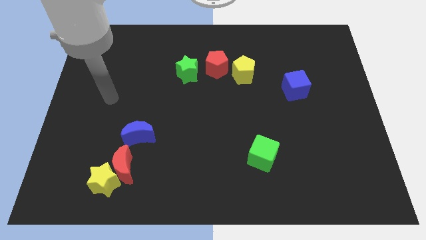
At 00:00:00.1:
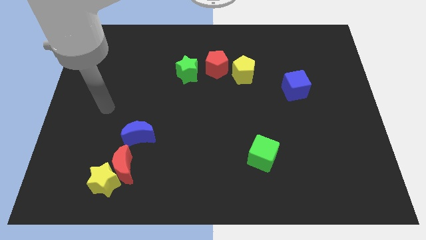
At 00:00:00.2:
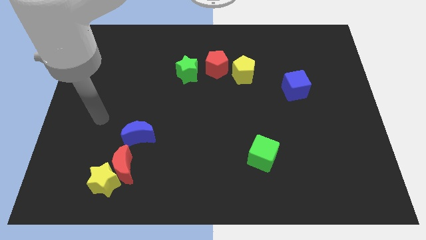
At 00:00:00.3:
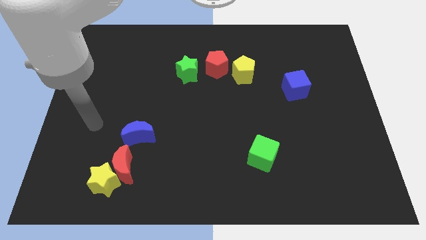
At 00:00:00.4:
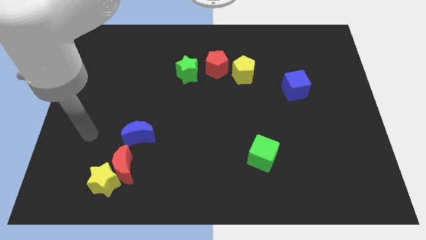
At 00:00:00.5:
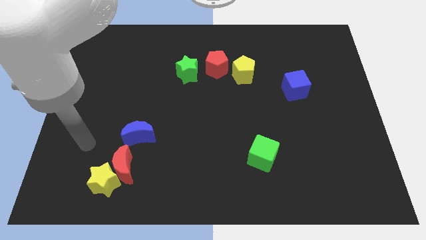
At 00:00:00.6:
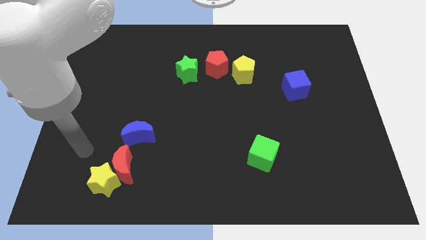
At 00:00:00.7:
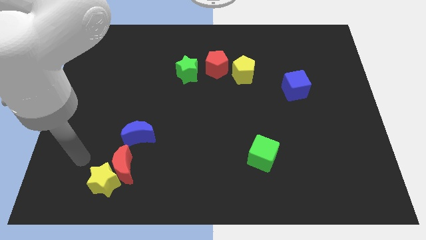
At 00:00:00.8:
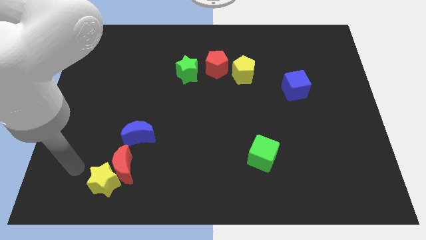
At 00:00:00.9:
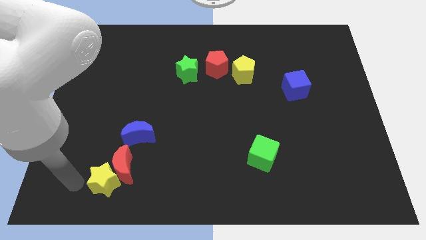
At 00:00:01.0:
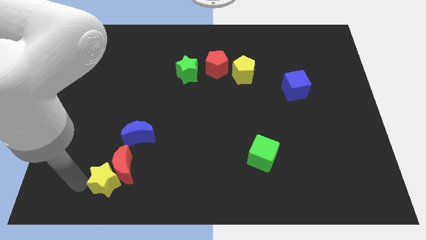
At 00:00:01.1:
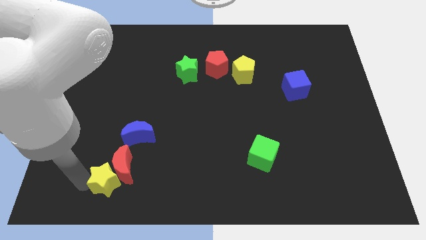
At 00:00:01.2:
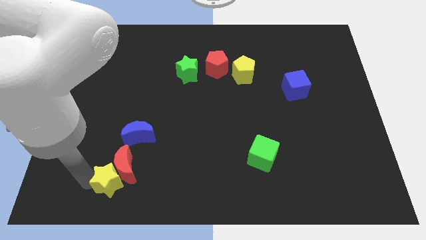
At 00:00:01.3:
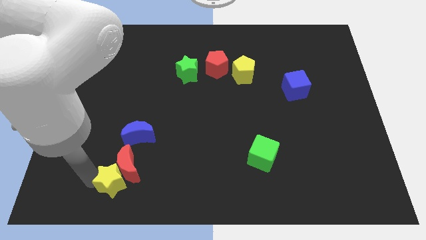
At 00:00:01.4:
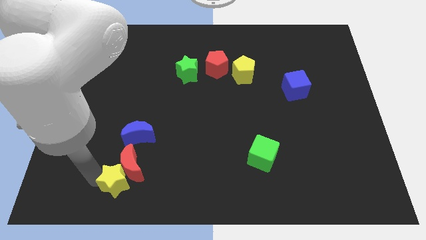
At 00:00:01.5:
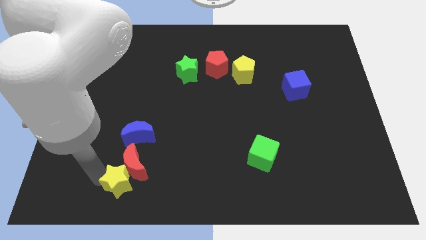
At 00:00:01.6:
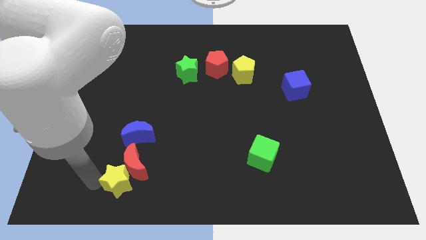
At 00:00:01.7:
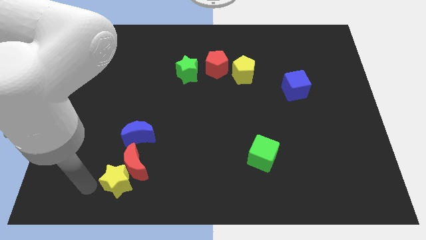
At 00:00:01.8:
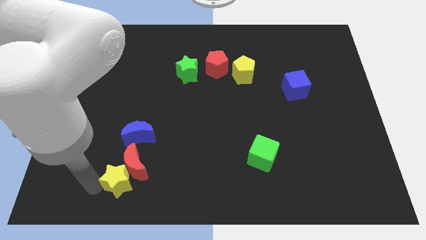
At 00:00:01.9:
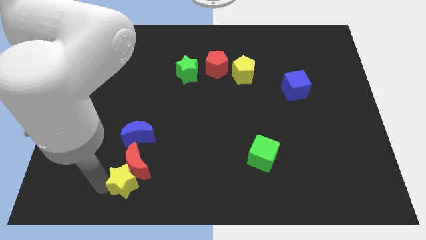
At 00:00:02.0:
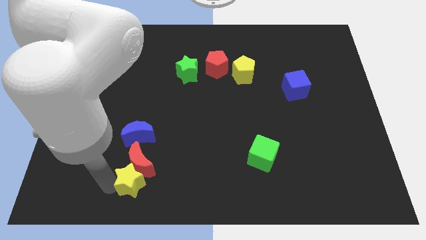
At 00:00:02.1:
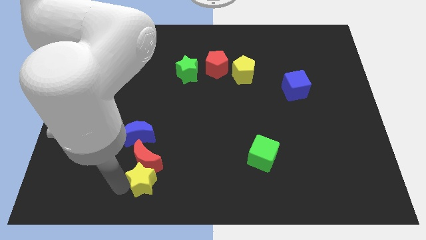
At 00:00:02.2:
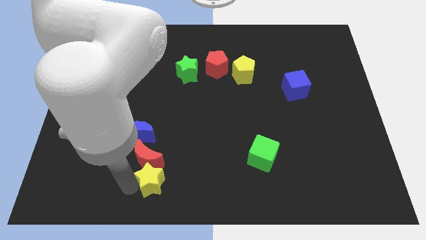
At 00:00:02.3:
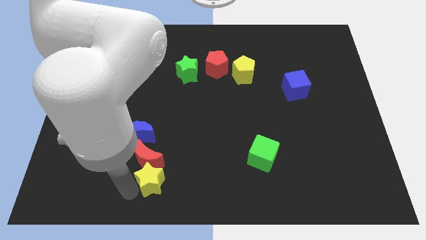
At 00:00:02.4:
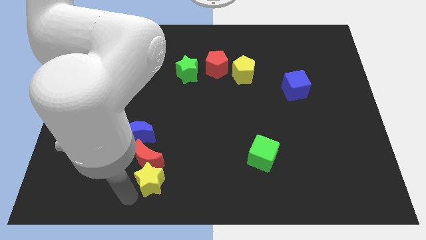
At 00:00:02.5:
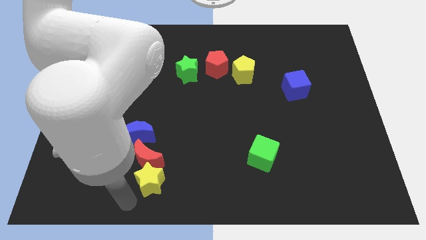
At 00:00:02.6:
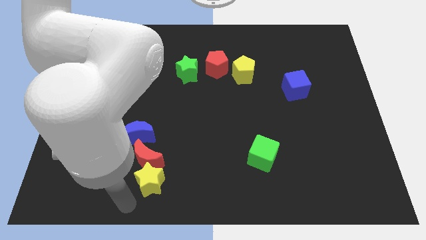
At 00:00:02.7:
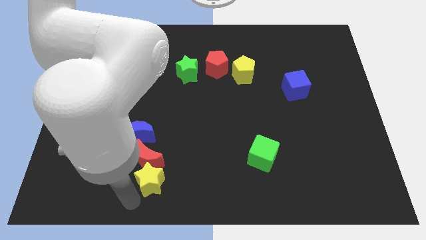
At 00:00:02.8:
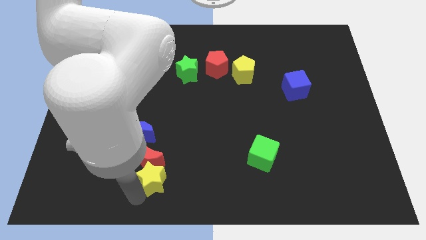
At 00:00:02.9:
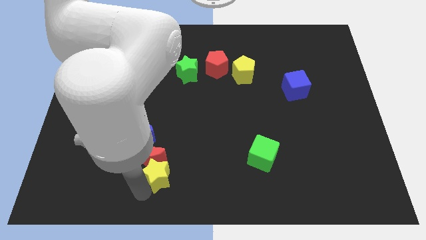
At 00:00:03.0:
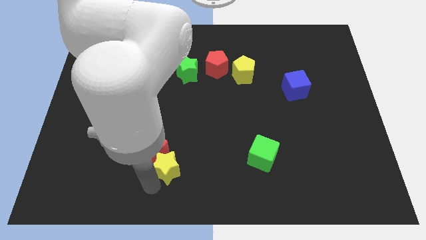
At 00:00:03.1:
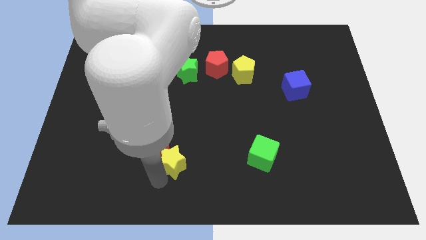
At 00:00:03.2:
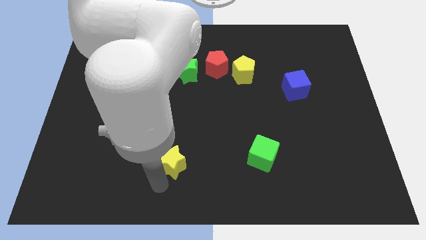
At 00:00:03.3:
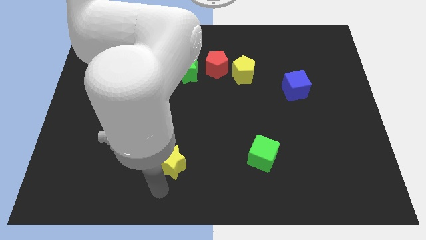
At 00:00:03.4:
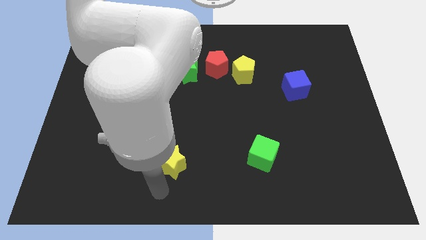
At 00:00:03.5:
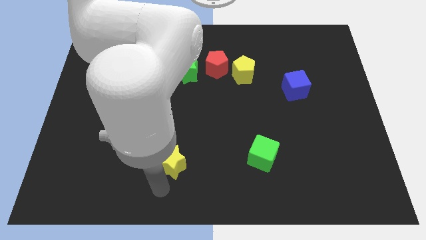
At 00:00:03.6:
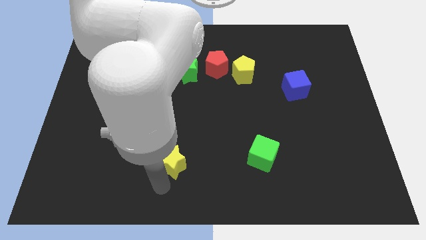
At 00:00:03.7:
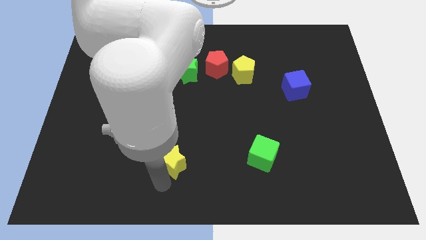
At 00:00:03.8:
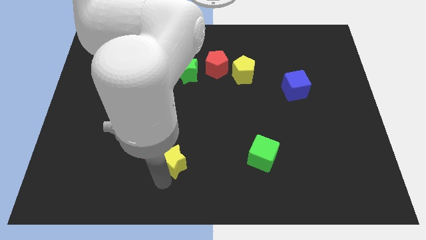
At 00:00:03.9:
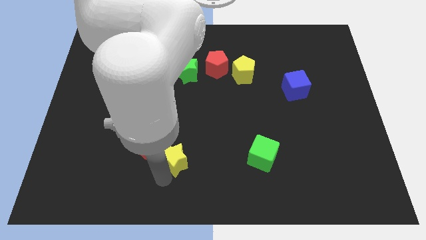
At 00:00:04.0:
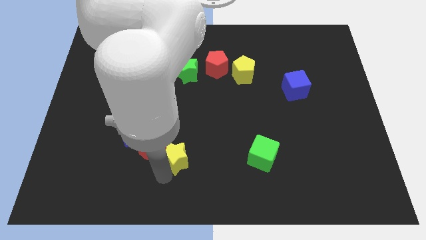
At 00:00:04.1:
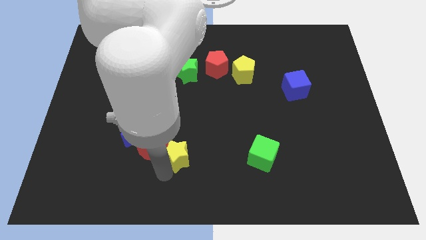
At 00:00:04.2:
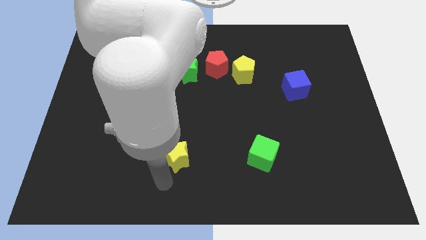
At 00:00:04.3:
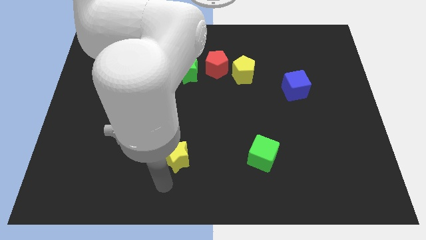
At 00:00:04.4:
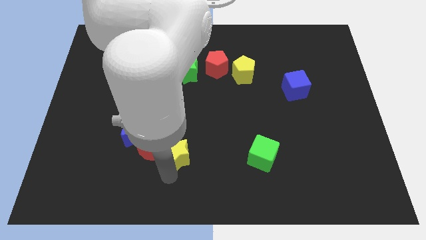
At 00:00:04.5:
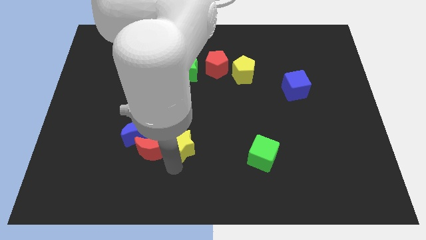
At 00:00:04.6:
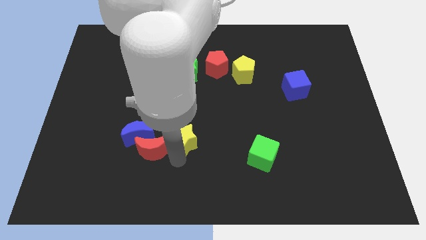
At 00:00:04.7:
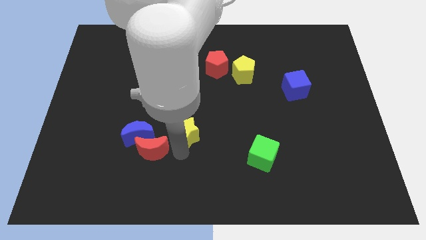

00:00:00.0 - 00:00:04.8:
move the yellow star to the center

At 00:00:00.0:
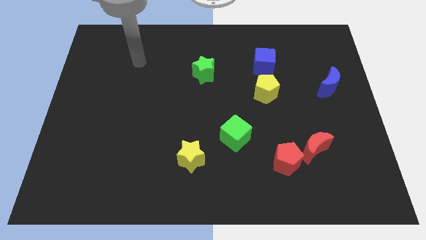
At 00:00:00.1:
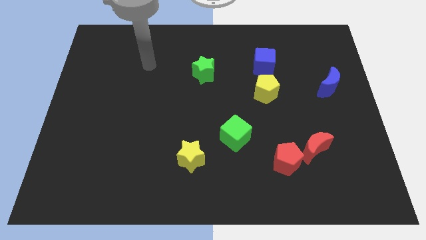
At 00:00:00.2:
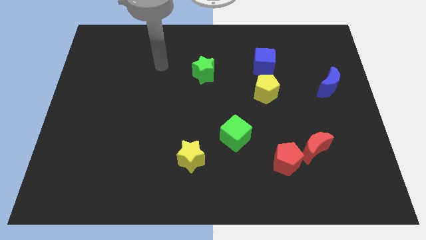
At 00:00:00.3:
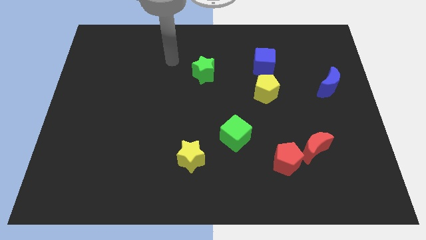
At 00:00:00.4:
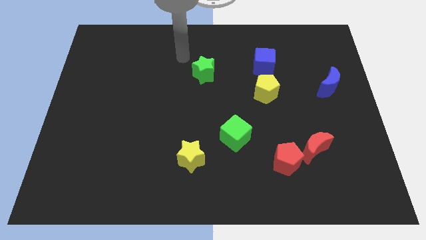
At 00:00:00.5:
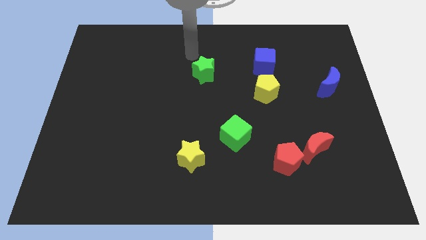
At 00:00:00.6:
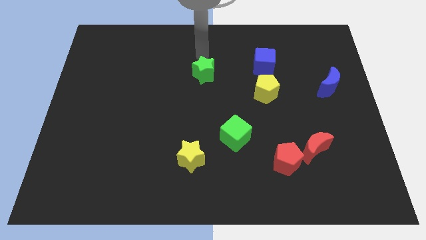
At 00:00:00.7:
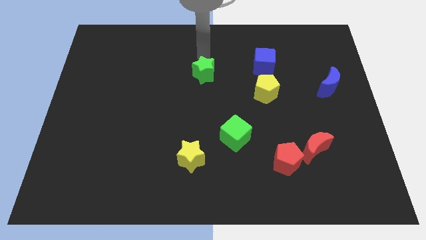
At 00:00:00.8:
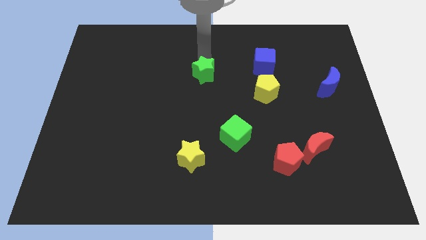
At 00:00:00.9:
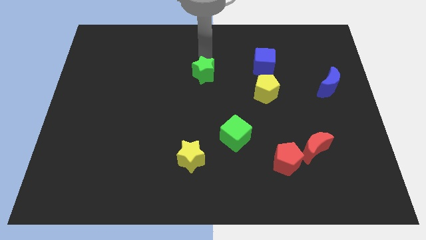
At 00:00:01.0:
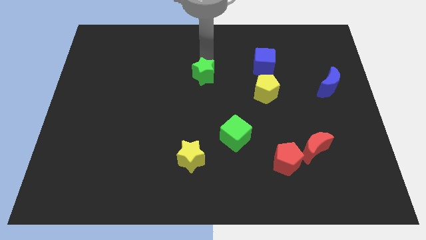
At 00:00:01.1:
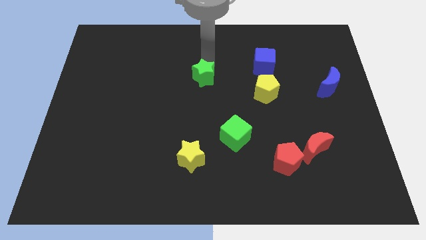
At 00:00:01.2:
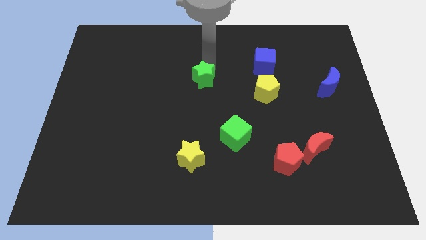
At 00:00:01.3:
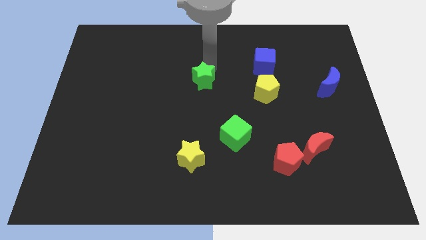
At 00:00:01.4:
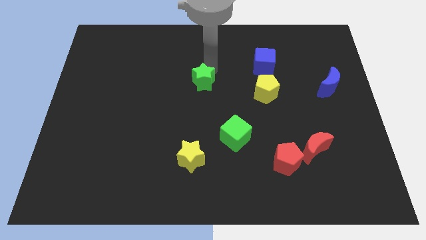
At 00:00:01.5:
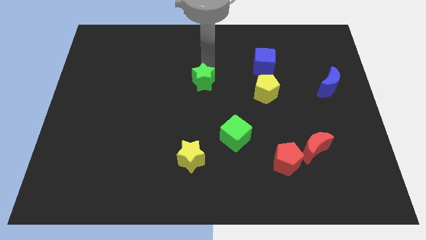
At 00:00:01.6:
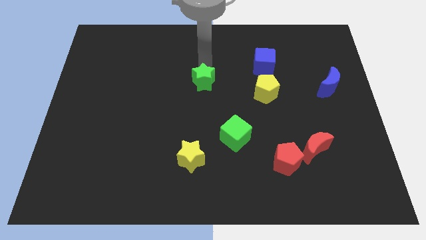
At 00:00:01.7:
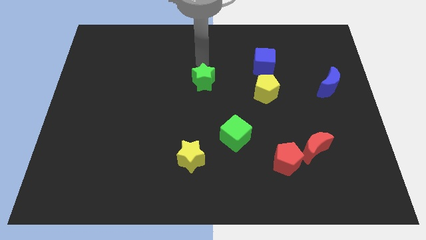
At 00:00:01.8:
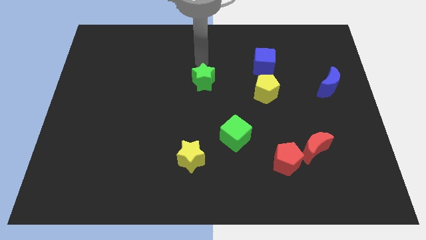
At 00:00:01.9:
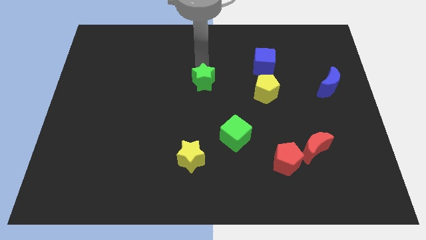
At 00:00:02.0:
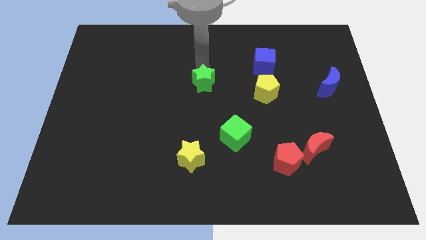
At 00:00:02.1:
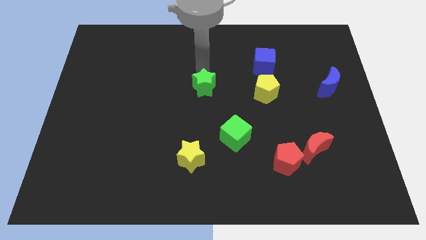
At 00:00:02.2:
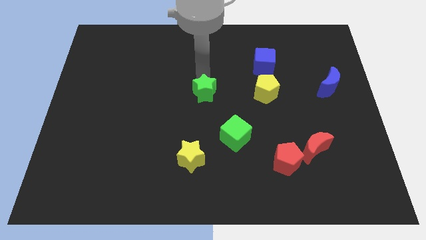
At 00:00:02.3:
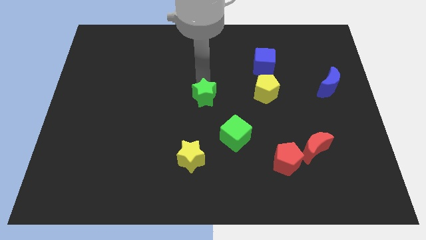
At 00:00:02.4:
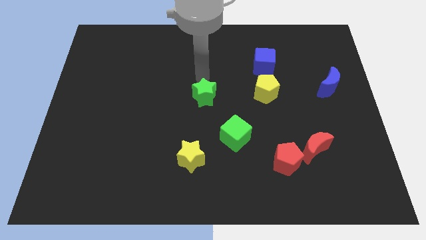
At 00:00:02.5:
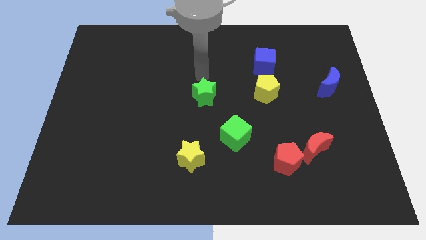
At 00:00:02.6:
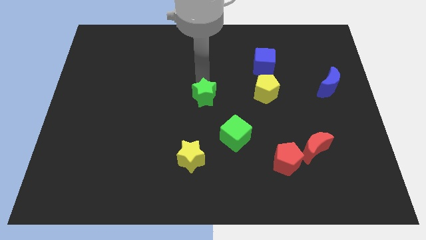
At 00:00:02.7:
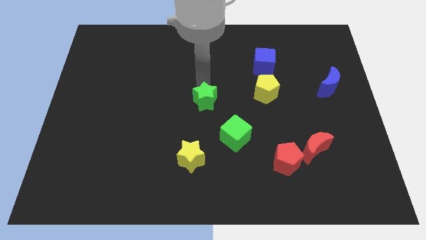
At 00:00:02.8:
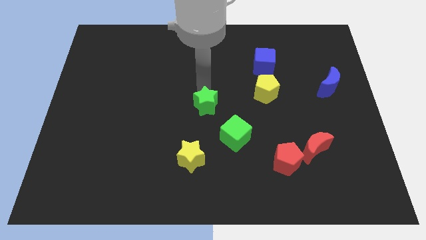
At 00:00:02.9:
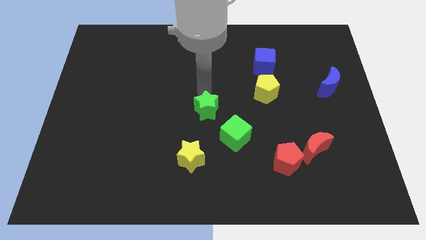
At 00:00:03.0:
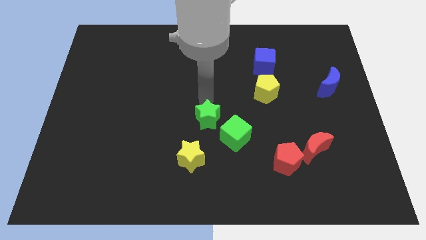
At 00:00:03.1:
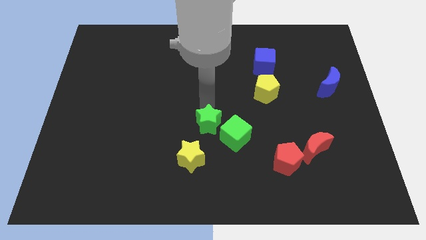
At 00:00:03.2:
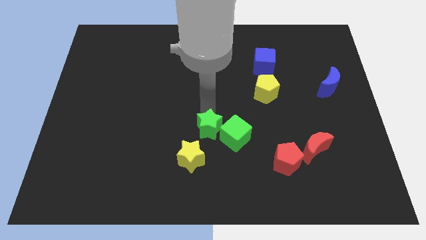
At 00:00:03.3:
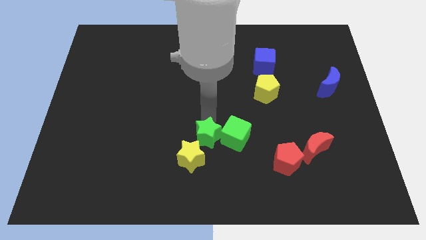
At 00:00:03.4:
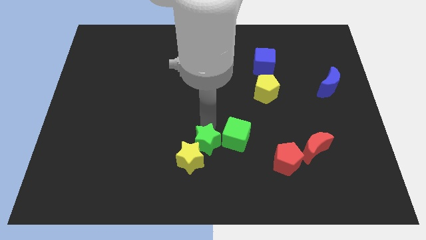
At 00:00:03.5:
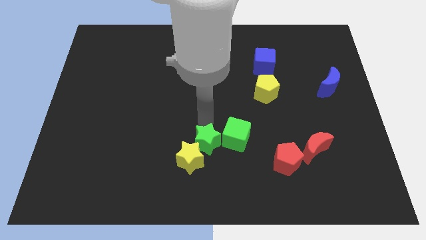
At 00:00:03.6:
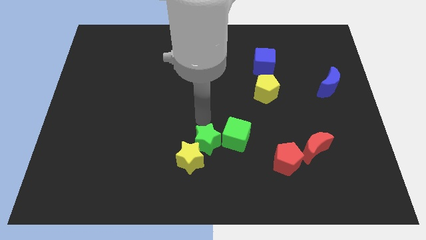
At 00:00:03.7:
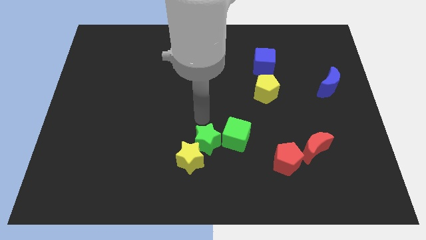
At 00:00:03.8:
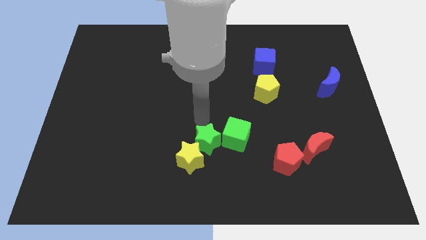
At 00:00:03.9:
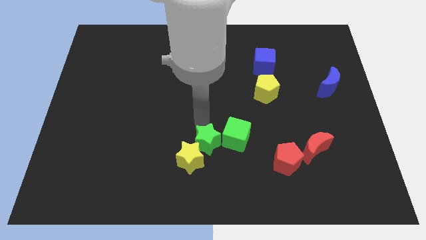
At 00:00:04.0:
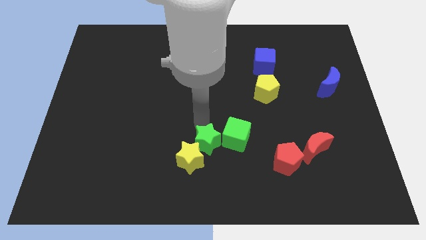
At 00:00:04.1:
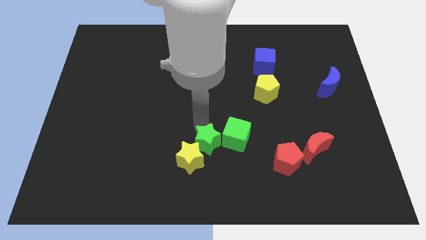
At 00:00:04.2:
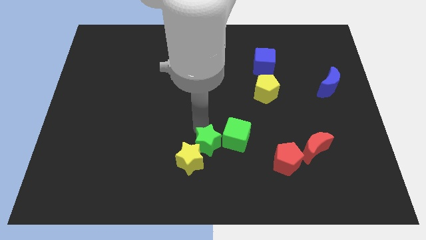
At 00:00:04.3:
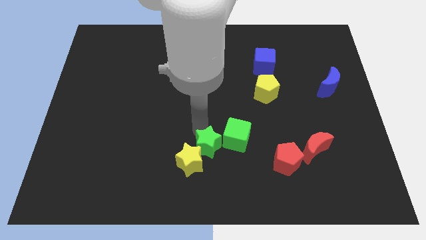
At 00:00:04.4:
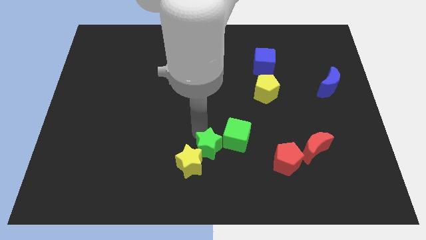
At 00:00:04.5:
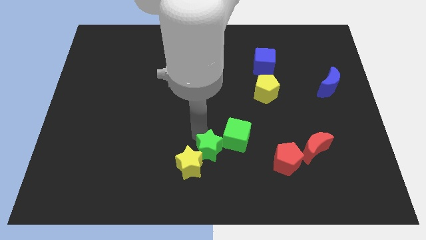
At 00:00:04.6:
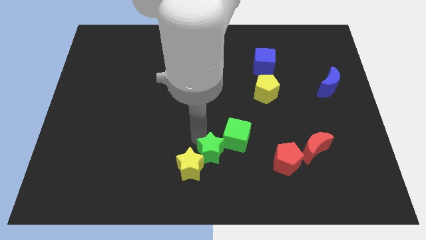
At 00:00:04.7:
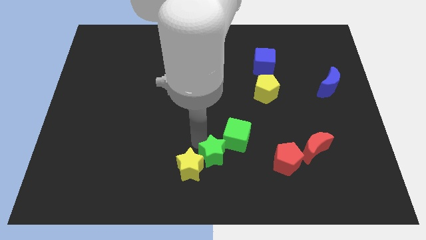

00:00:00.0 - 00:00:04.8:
slide the green star to the bottom
